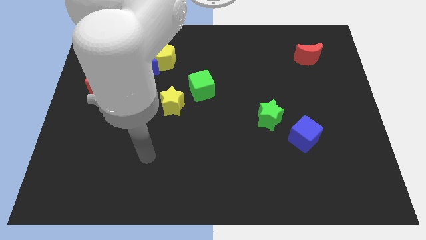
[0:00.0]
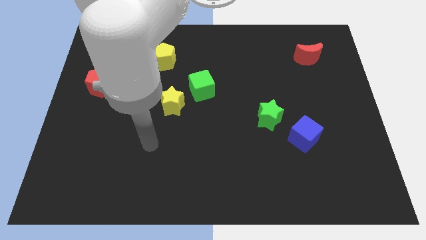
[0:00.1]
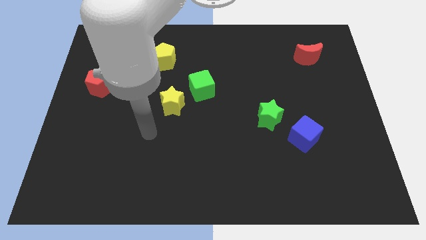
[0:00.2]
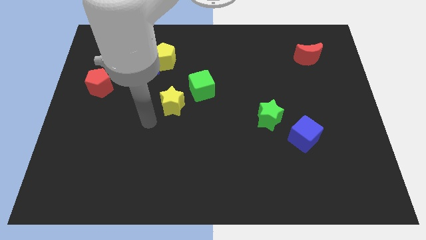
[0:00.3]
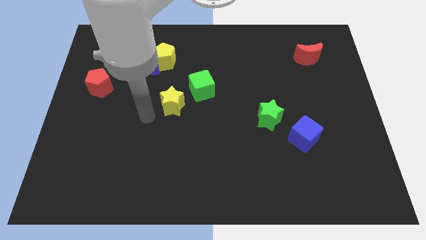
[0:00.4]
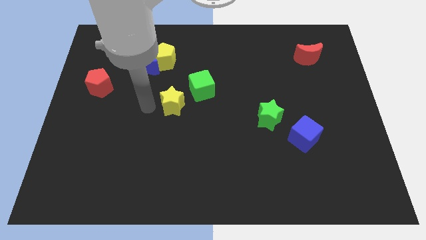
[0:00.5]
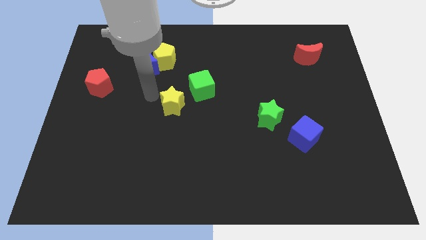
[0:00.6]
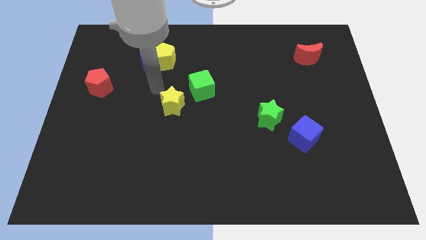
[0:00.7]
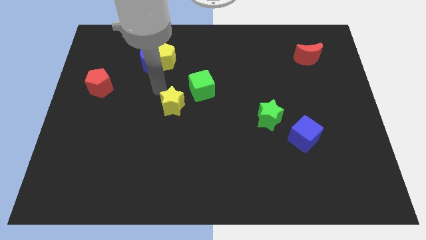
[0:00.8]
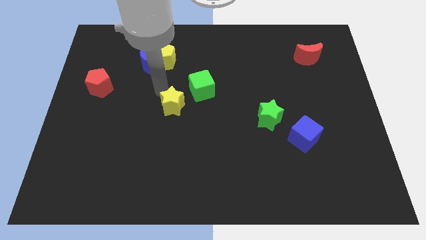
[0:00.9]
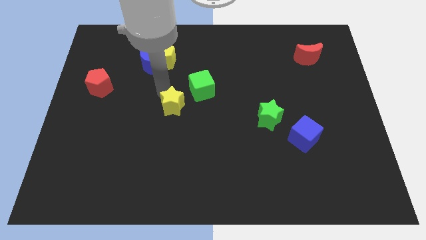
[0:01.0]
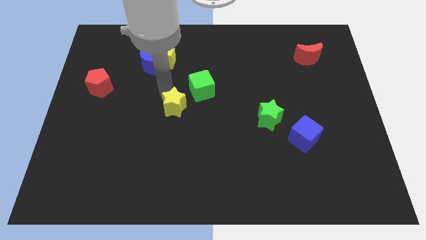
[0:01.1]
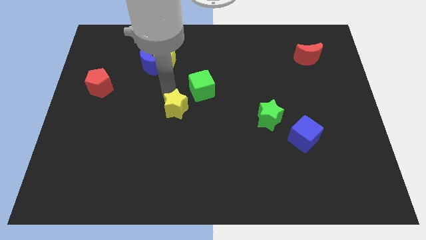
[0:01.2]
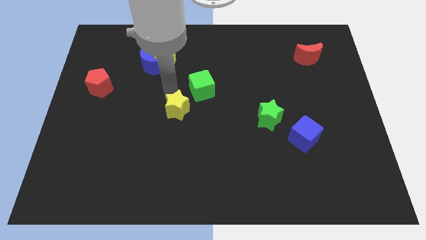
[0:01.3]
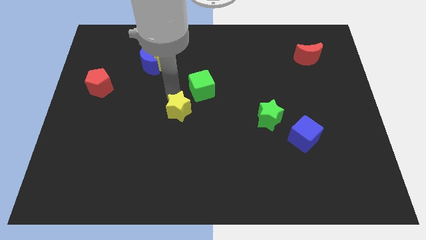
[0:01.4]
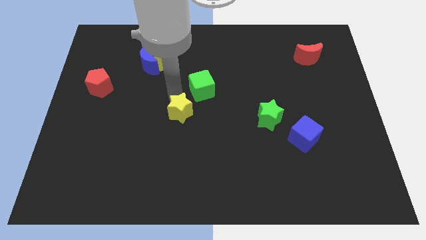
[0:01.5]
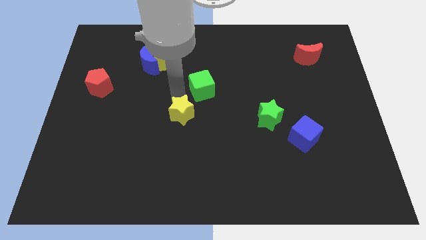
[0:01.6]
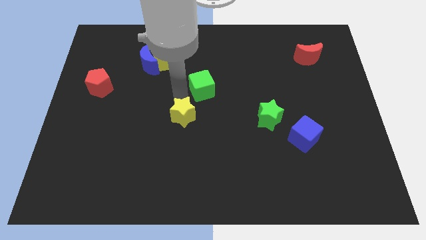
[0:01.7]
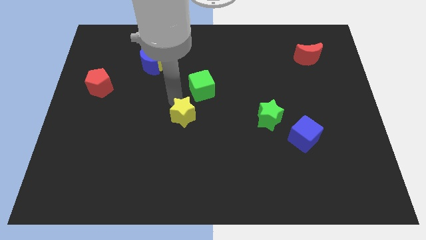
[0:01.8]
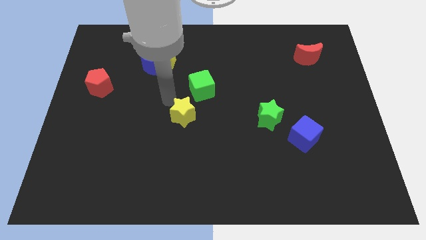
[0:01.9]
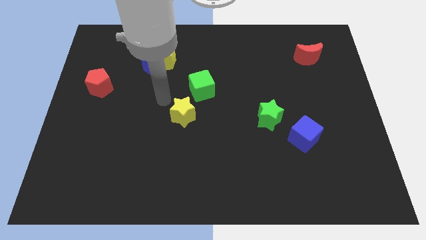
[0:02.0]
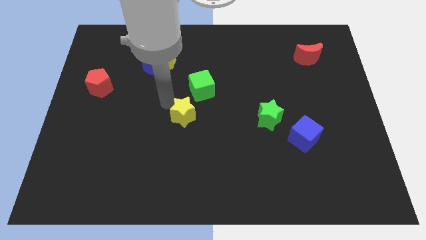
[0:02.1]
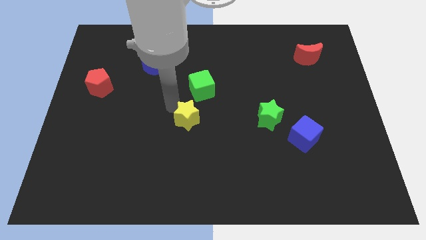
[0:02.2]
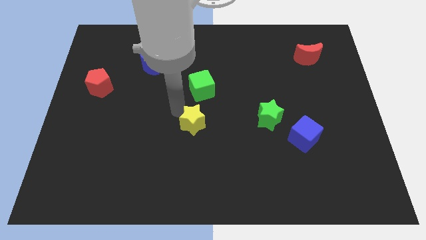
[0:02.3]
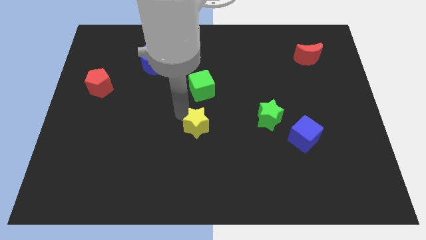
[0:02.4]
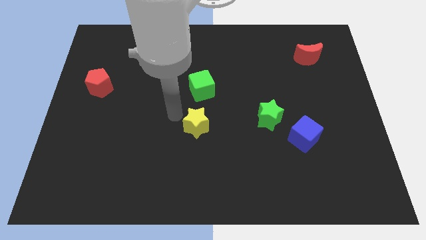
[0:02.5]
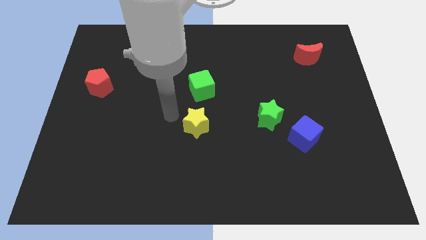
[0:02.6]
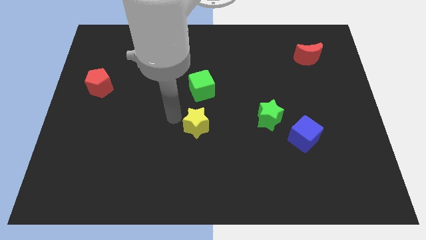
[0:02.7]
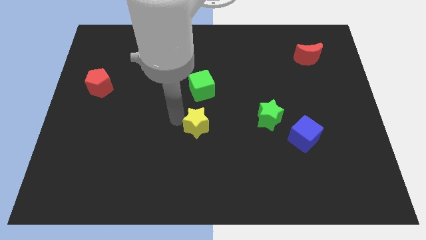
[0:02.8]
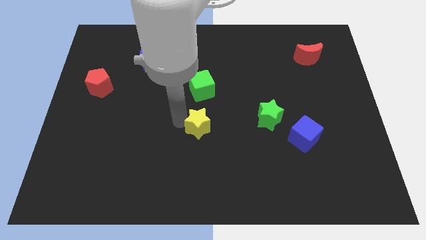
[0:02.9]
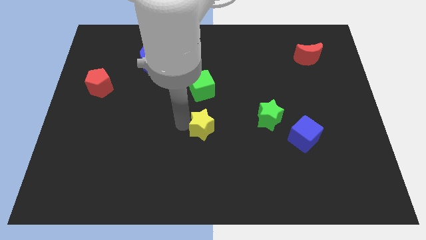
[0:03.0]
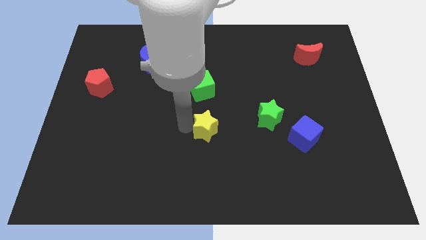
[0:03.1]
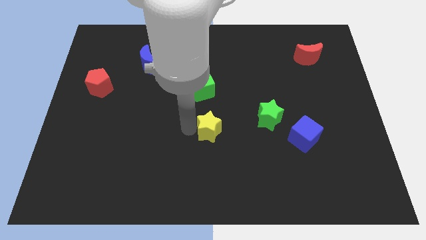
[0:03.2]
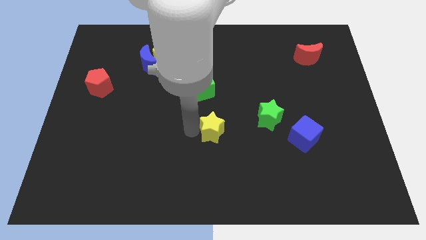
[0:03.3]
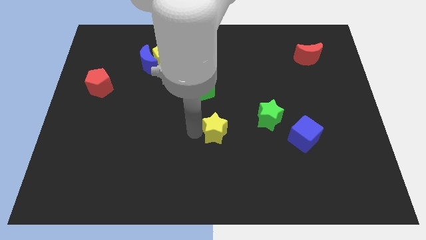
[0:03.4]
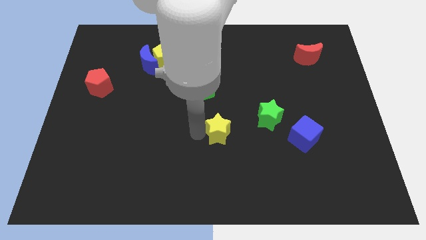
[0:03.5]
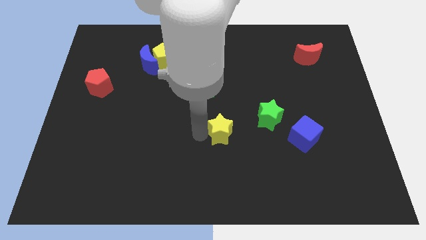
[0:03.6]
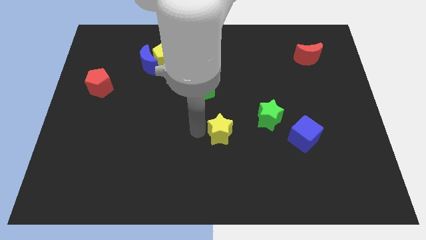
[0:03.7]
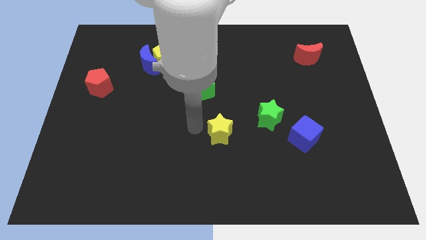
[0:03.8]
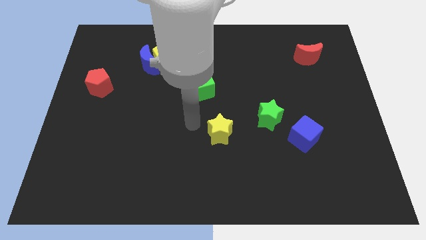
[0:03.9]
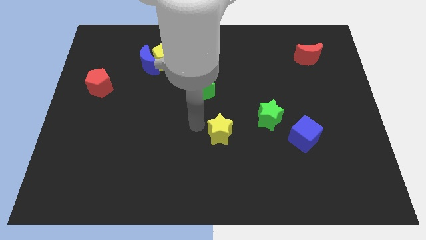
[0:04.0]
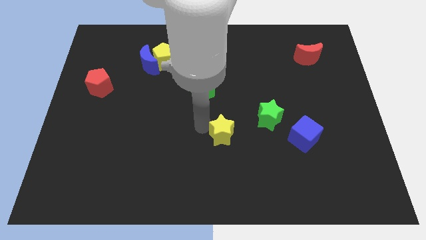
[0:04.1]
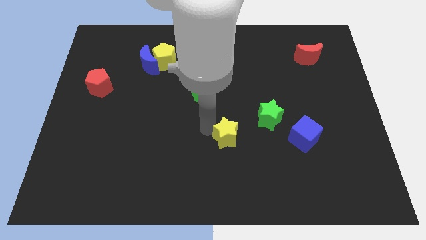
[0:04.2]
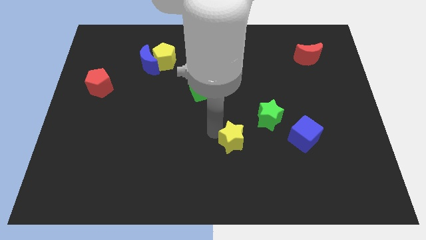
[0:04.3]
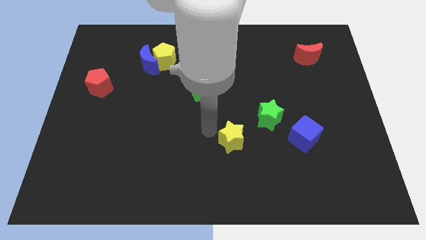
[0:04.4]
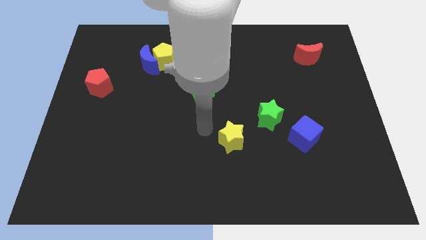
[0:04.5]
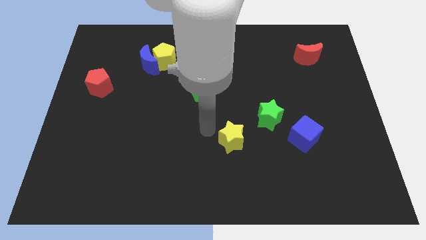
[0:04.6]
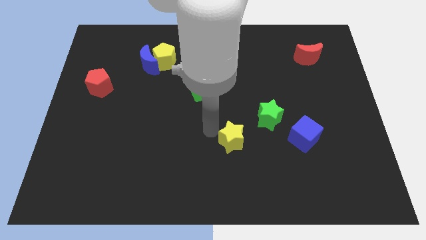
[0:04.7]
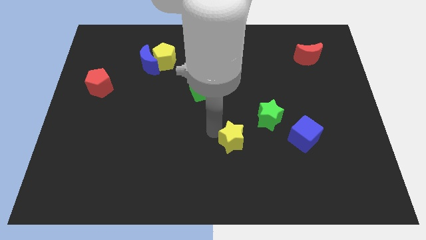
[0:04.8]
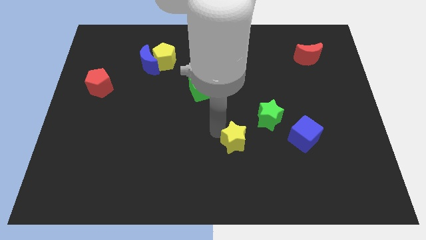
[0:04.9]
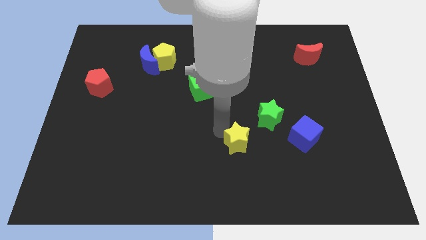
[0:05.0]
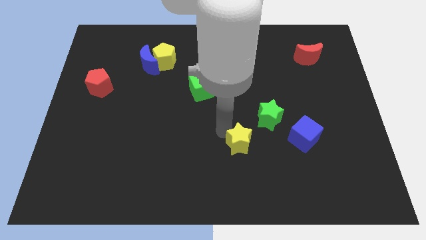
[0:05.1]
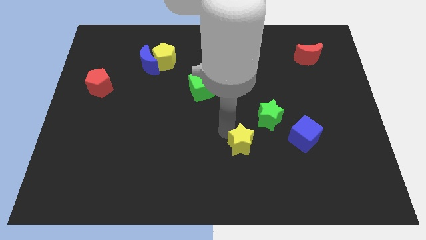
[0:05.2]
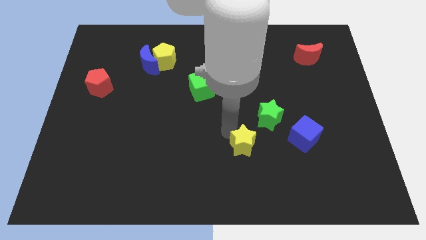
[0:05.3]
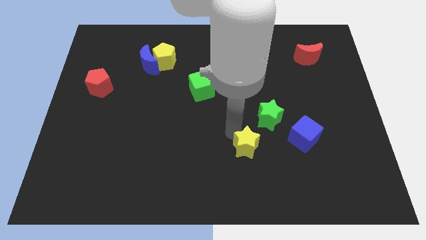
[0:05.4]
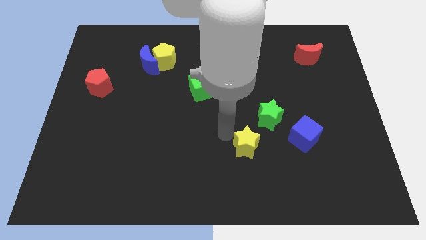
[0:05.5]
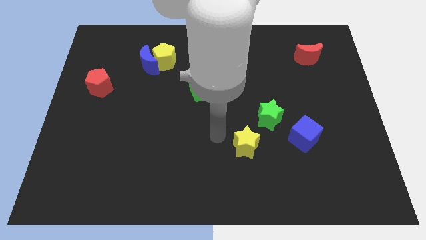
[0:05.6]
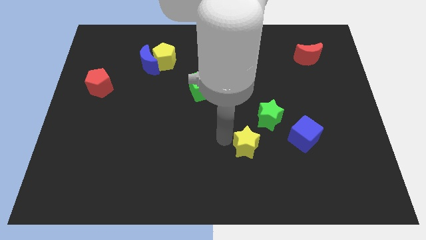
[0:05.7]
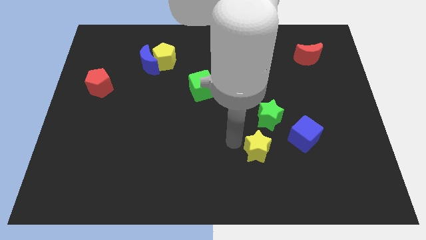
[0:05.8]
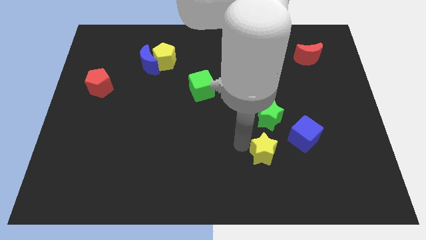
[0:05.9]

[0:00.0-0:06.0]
push the yellow star to the bottom left side of the blue cube

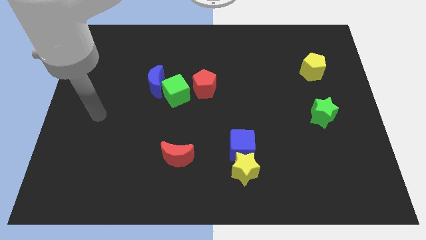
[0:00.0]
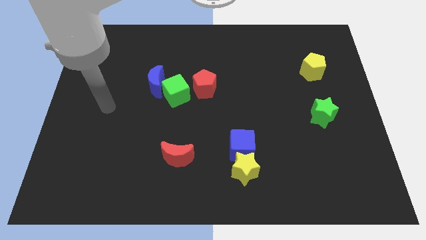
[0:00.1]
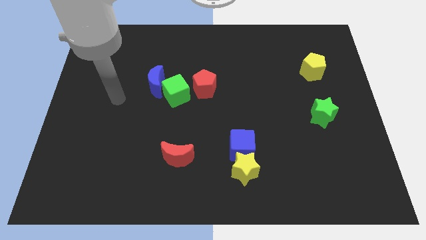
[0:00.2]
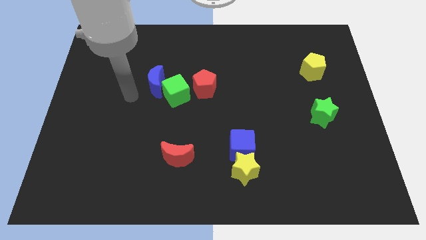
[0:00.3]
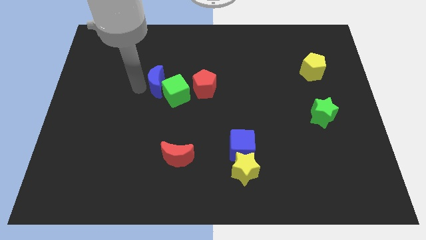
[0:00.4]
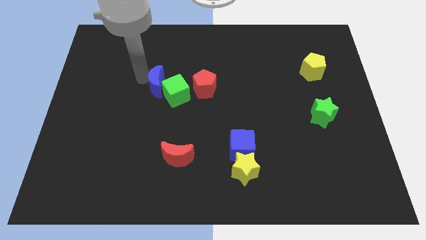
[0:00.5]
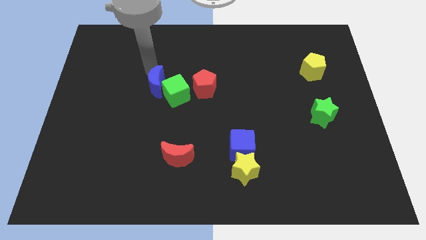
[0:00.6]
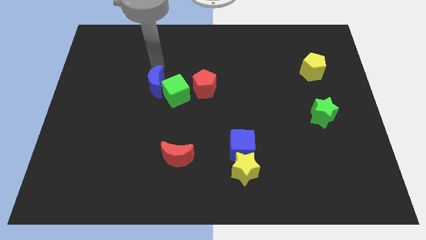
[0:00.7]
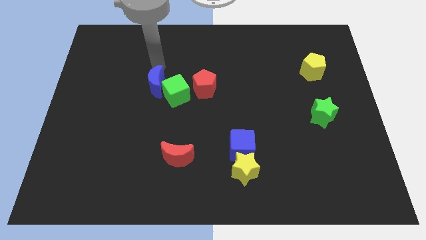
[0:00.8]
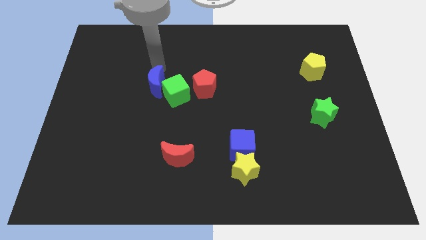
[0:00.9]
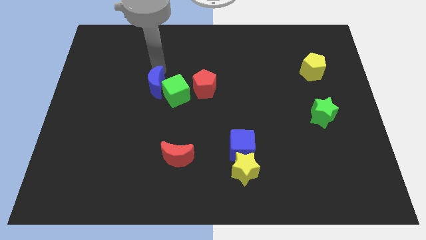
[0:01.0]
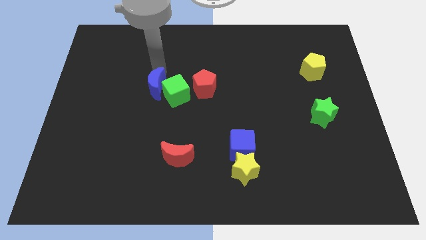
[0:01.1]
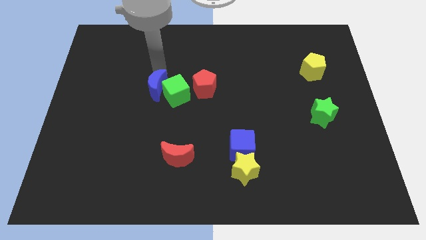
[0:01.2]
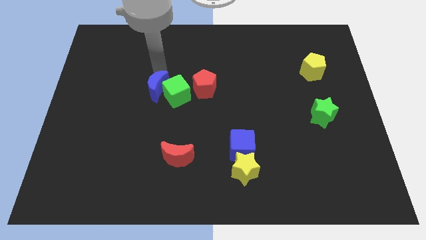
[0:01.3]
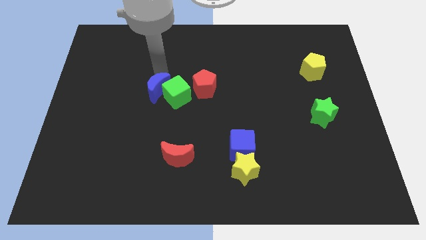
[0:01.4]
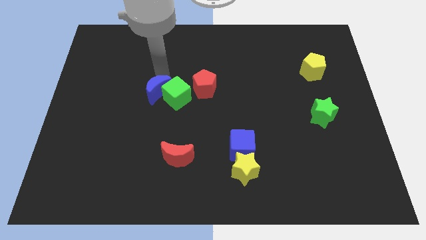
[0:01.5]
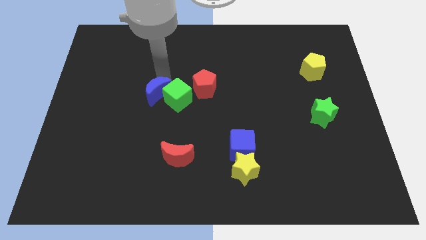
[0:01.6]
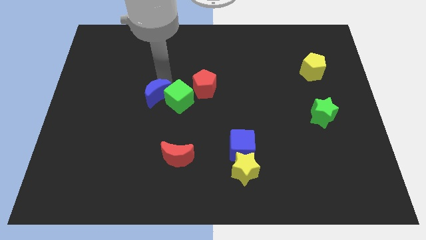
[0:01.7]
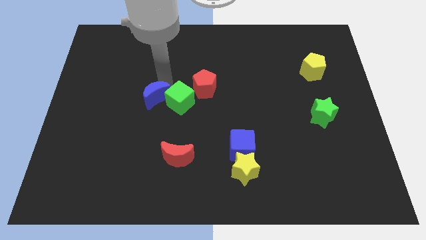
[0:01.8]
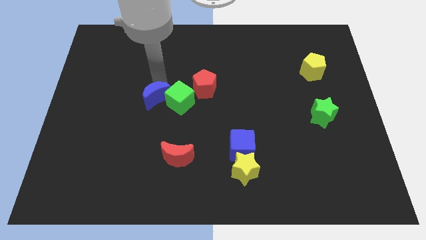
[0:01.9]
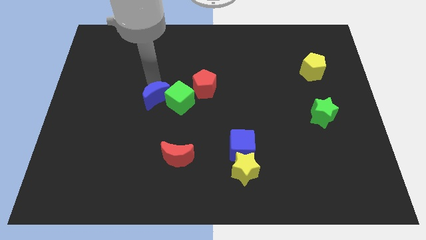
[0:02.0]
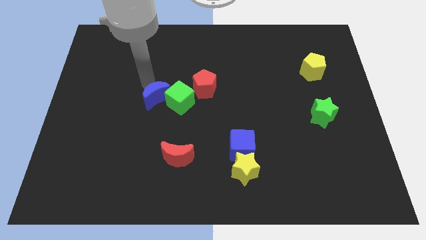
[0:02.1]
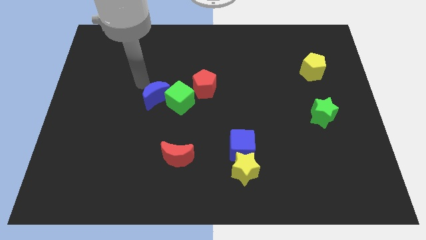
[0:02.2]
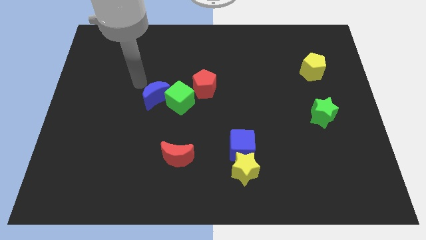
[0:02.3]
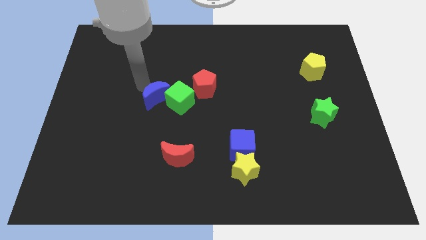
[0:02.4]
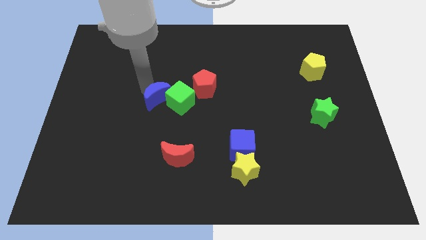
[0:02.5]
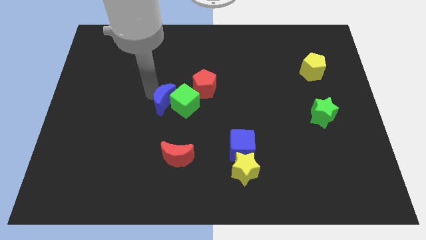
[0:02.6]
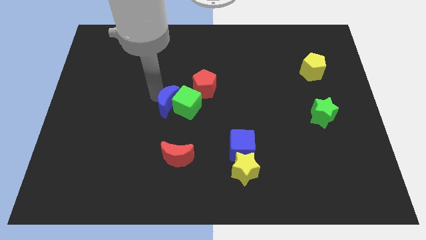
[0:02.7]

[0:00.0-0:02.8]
push the blue moon to the top of the red moon
